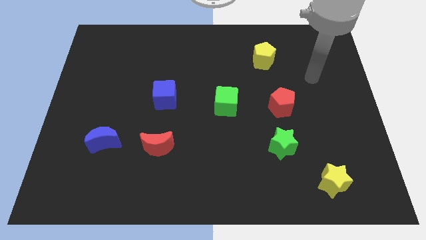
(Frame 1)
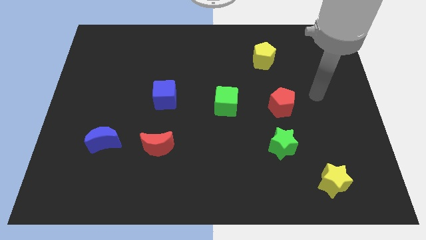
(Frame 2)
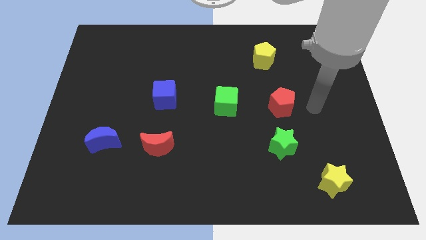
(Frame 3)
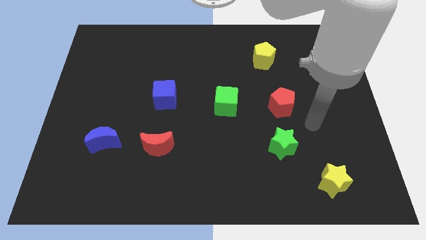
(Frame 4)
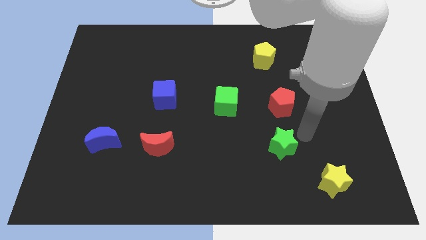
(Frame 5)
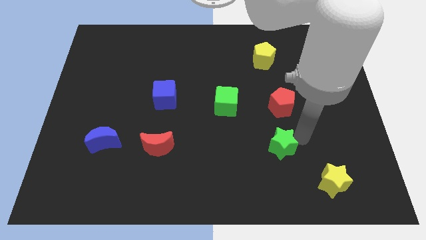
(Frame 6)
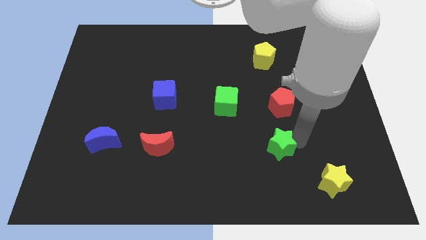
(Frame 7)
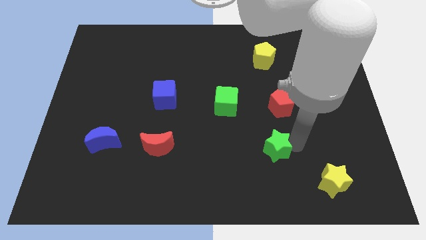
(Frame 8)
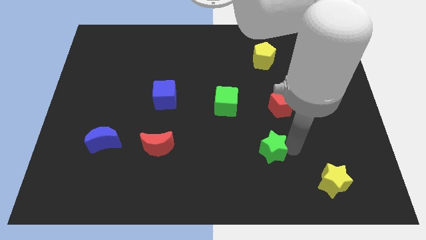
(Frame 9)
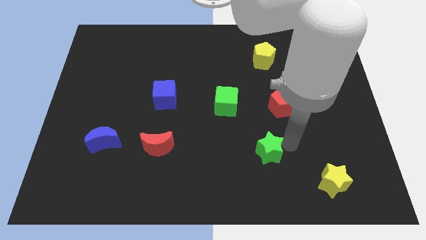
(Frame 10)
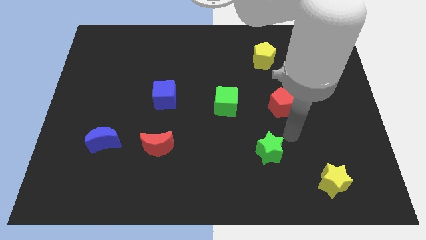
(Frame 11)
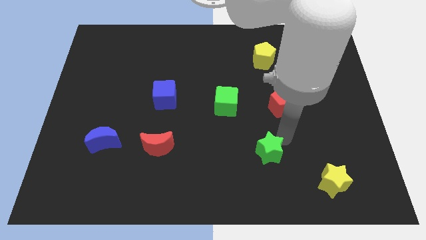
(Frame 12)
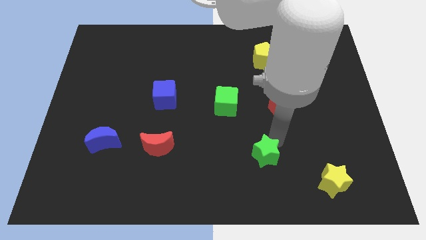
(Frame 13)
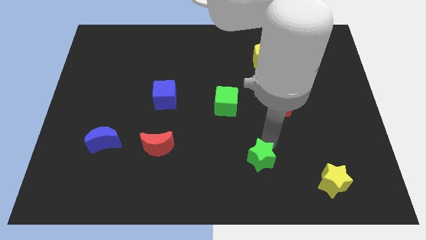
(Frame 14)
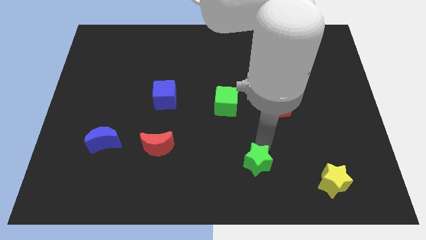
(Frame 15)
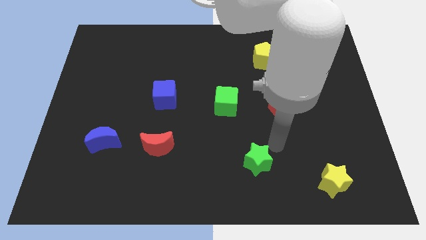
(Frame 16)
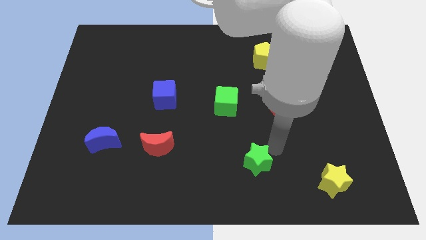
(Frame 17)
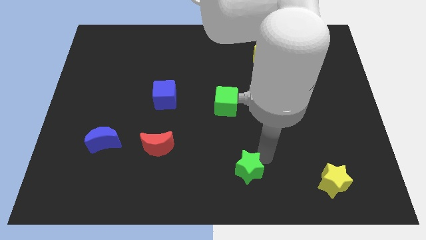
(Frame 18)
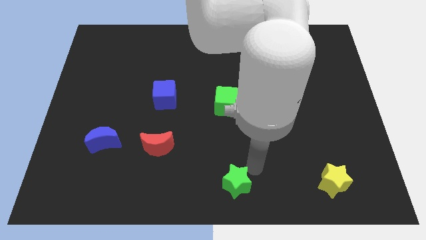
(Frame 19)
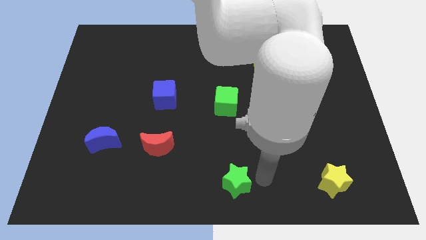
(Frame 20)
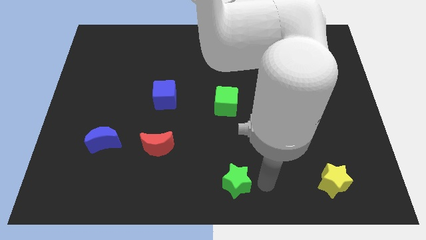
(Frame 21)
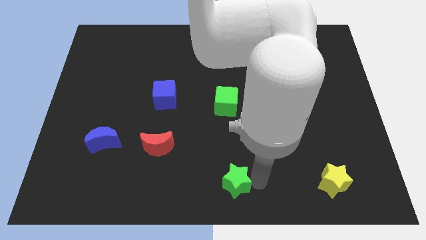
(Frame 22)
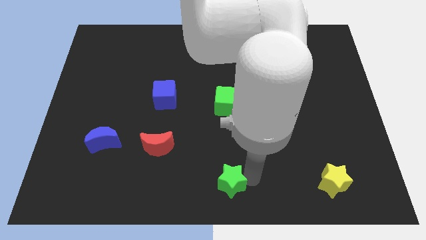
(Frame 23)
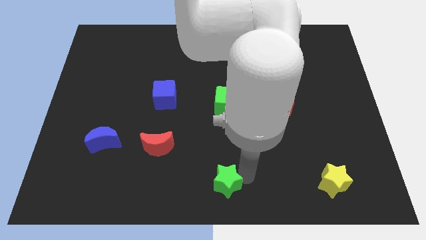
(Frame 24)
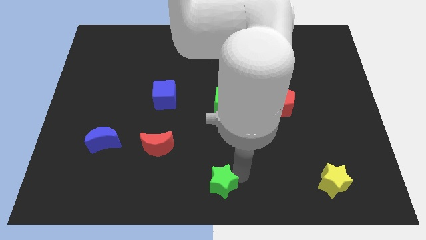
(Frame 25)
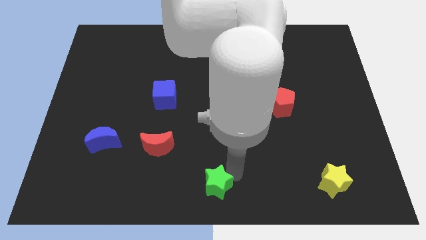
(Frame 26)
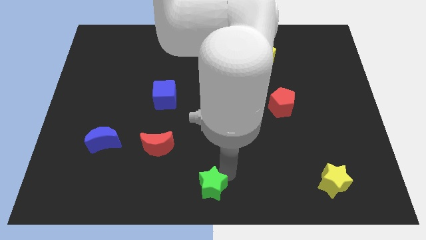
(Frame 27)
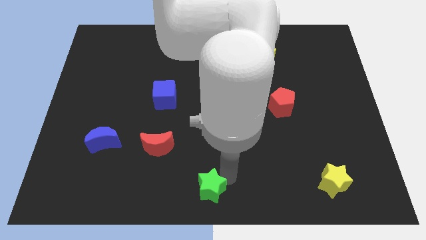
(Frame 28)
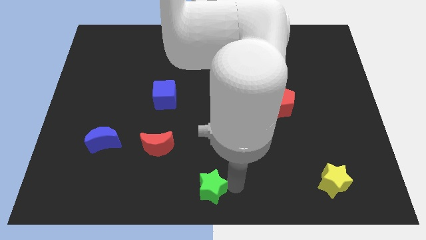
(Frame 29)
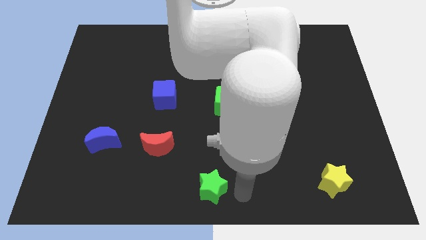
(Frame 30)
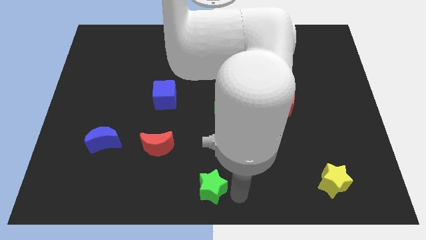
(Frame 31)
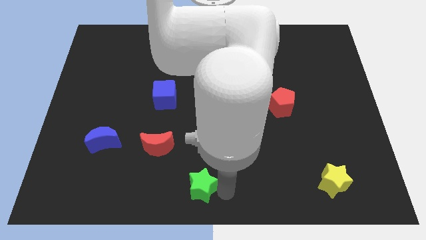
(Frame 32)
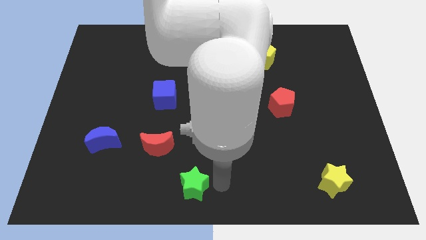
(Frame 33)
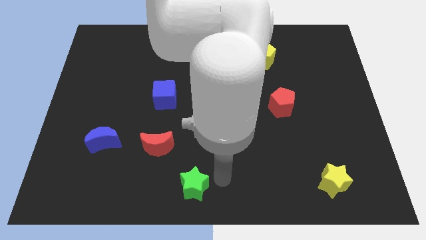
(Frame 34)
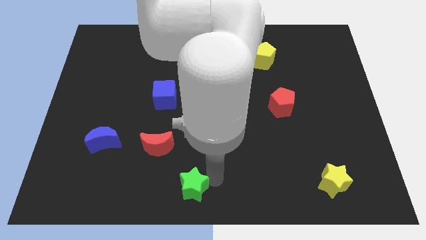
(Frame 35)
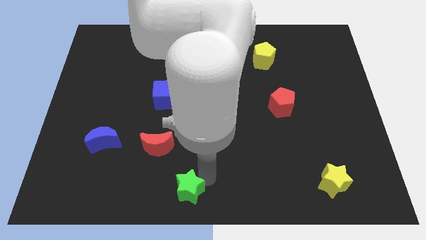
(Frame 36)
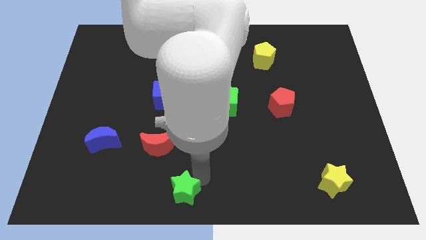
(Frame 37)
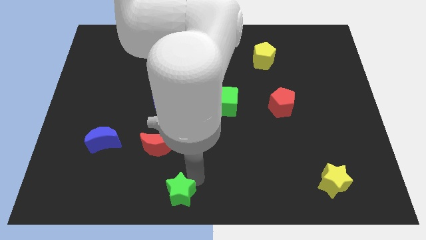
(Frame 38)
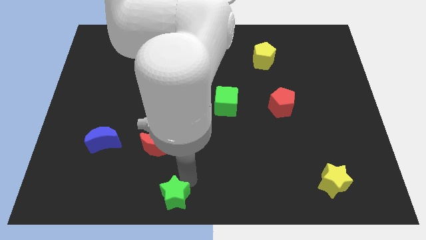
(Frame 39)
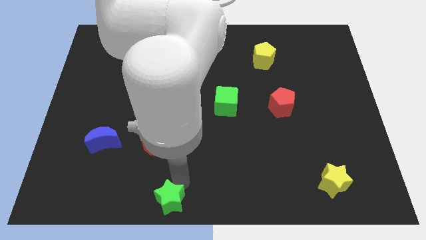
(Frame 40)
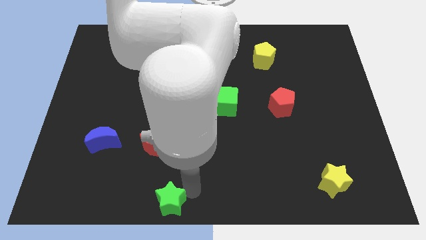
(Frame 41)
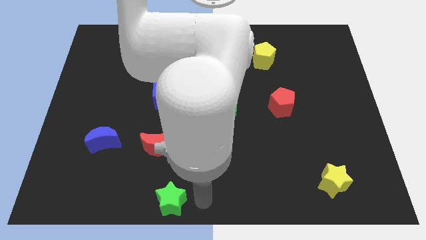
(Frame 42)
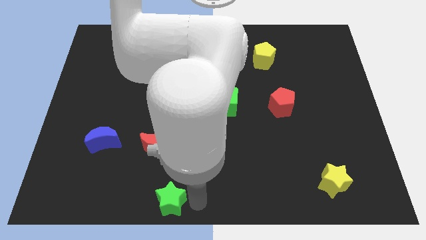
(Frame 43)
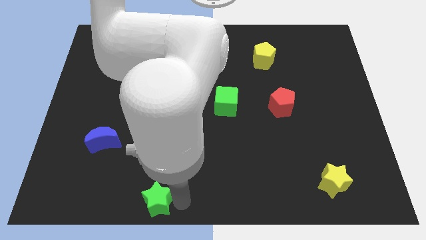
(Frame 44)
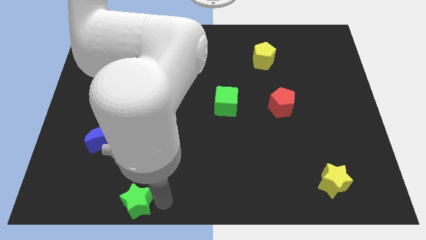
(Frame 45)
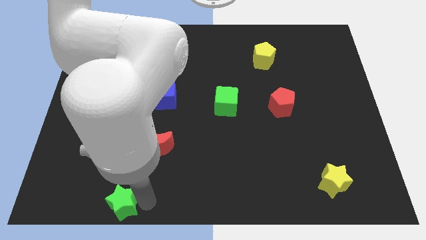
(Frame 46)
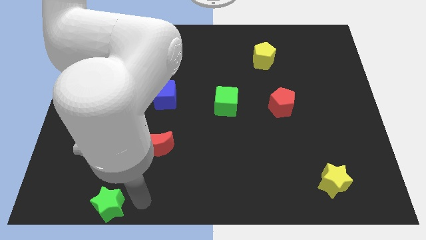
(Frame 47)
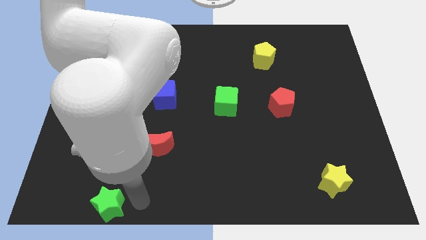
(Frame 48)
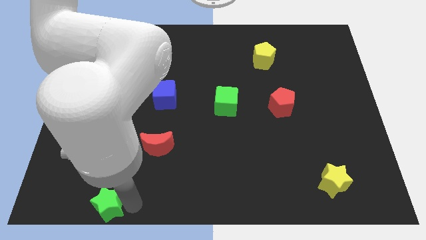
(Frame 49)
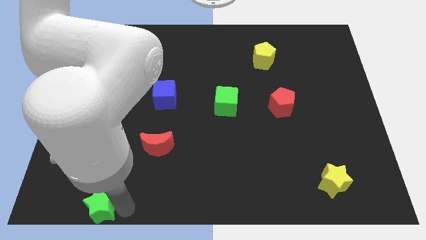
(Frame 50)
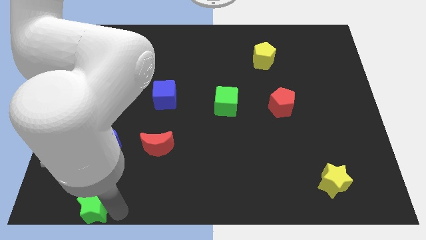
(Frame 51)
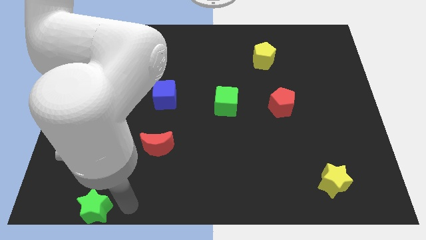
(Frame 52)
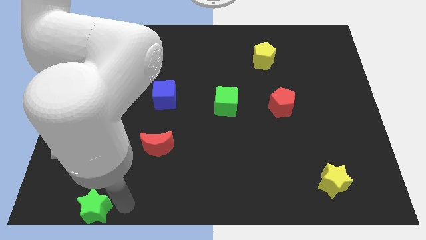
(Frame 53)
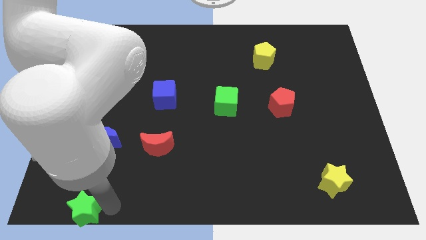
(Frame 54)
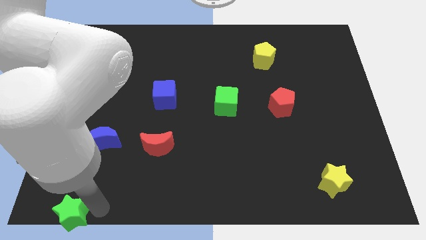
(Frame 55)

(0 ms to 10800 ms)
put the green star to the bottom left of the board

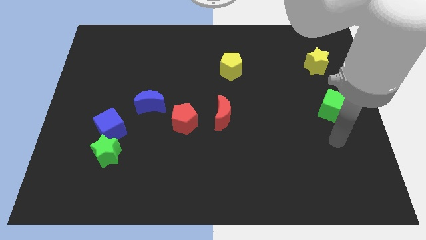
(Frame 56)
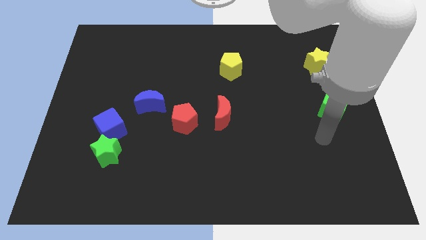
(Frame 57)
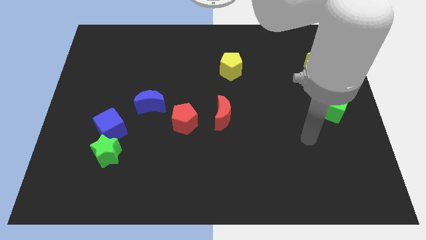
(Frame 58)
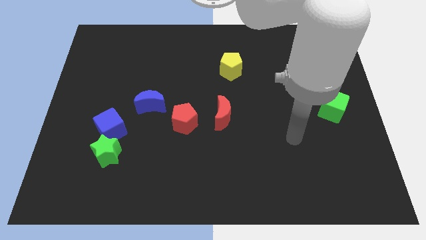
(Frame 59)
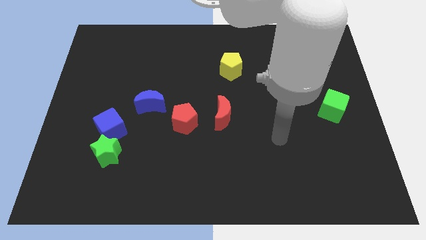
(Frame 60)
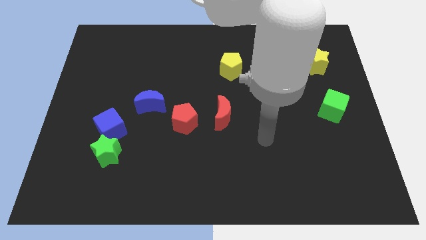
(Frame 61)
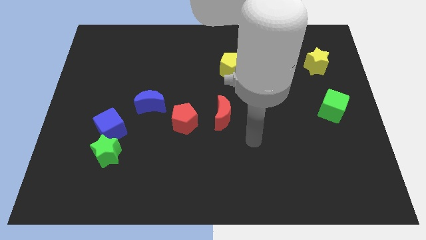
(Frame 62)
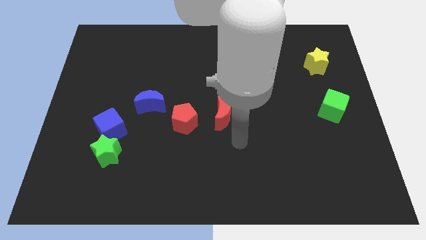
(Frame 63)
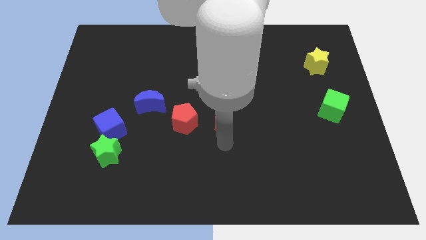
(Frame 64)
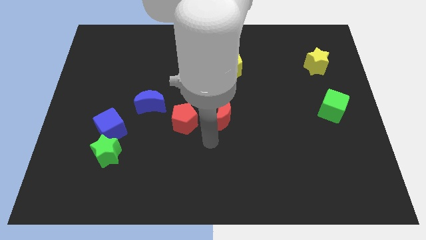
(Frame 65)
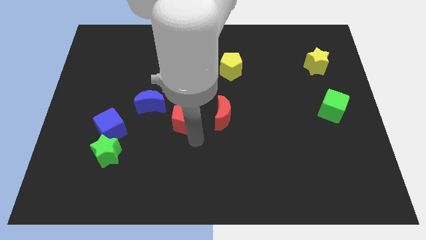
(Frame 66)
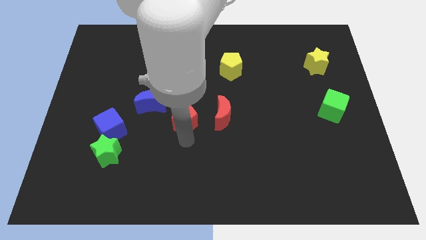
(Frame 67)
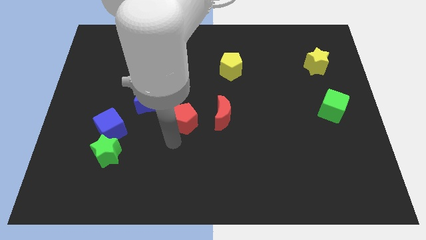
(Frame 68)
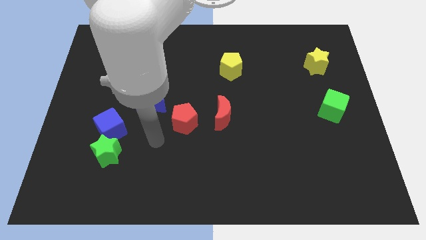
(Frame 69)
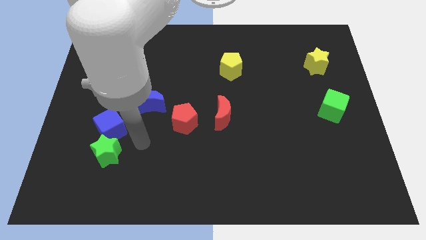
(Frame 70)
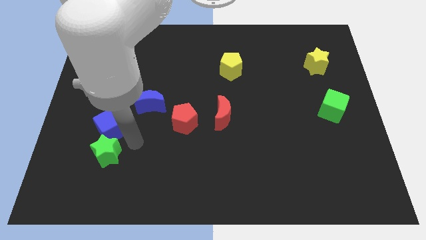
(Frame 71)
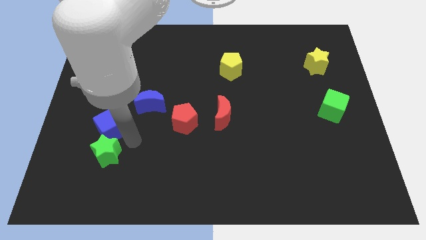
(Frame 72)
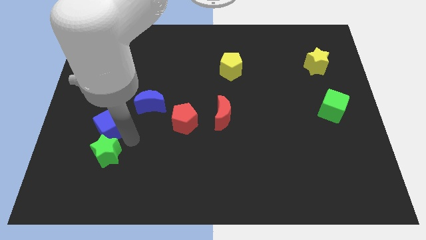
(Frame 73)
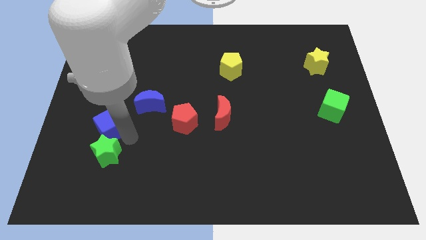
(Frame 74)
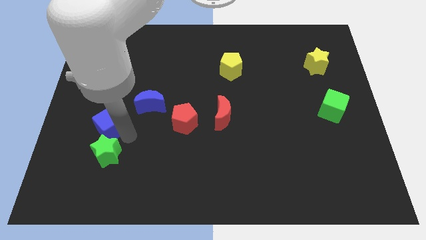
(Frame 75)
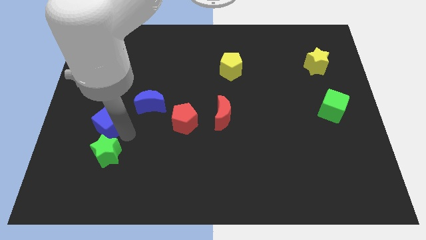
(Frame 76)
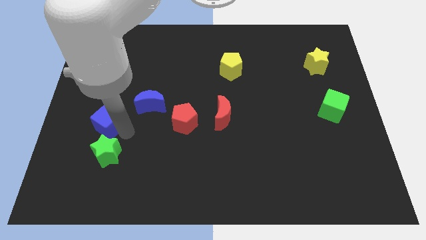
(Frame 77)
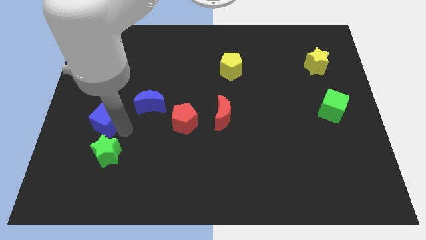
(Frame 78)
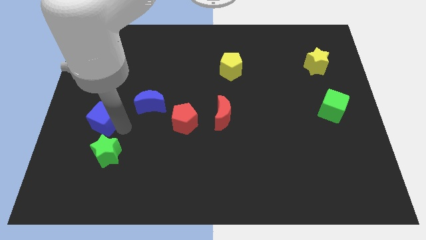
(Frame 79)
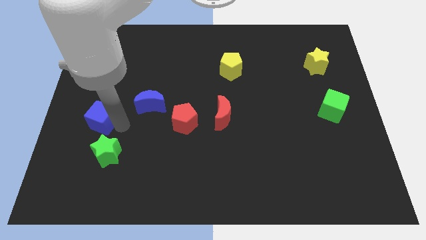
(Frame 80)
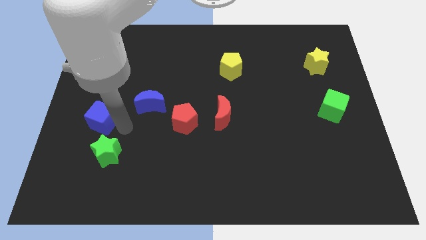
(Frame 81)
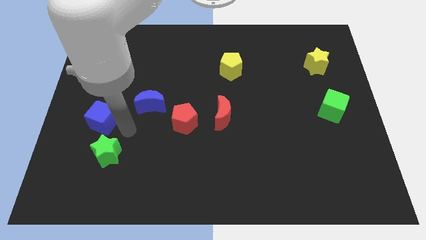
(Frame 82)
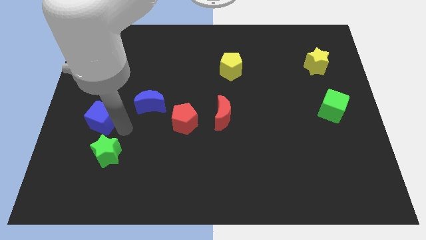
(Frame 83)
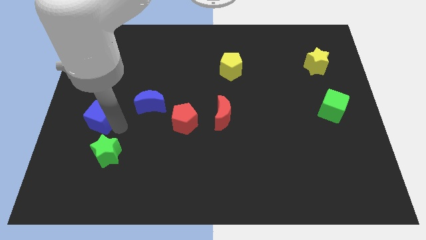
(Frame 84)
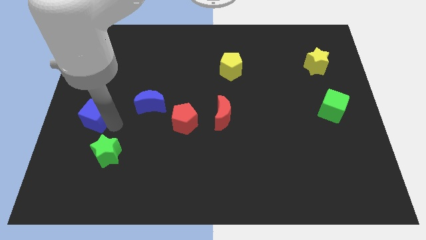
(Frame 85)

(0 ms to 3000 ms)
move the blue cube to the left side
